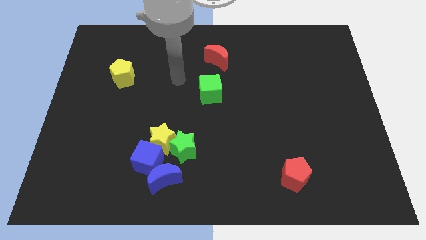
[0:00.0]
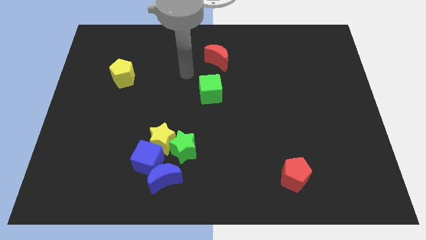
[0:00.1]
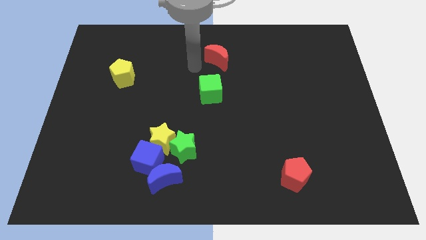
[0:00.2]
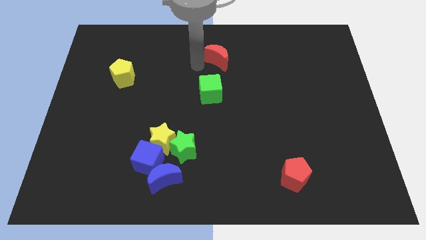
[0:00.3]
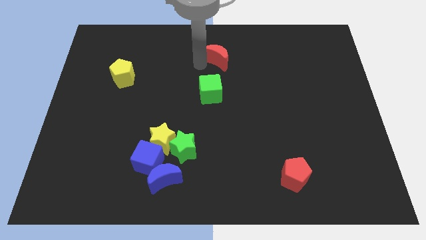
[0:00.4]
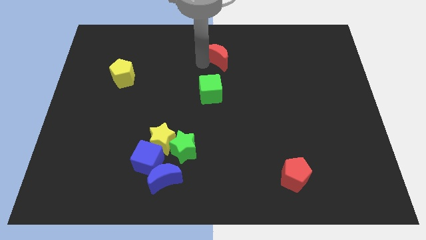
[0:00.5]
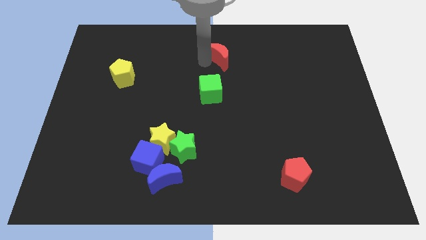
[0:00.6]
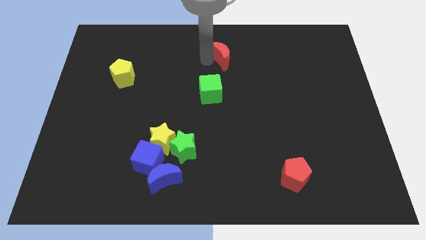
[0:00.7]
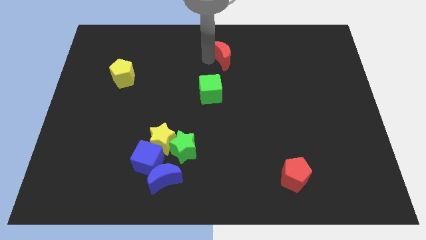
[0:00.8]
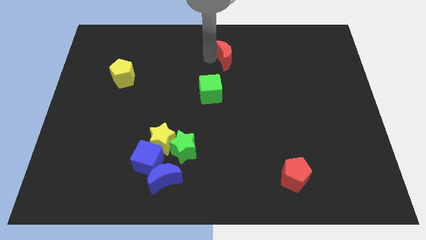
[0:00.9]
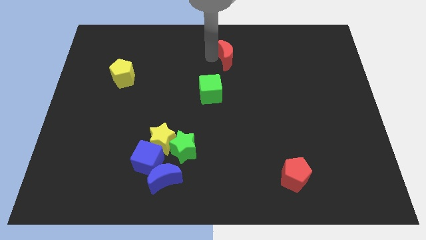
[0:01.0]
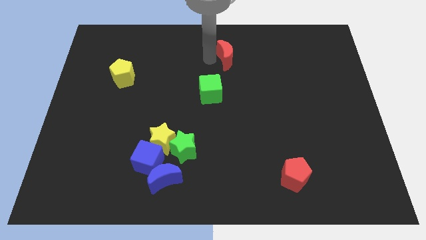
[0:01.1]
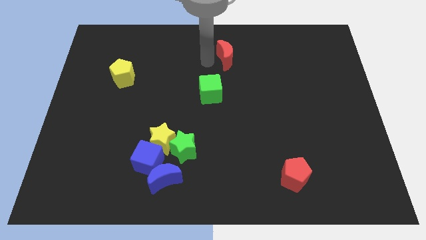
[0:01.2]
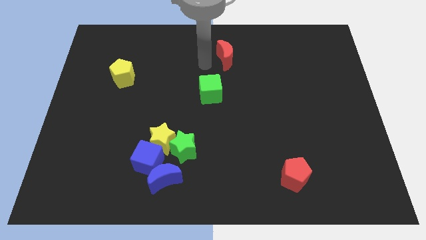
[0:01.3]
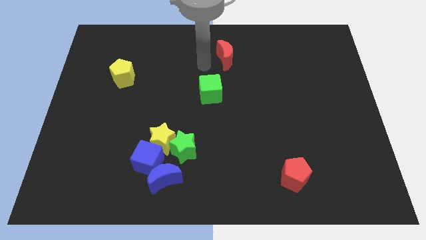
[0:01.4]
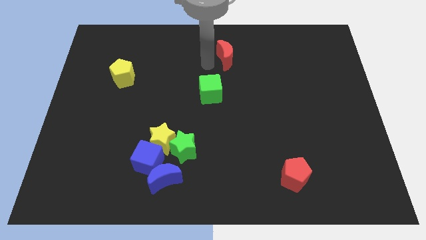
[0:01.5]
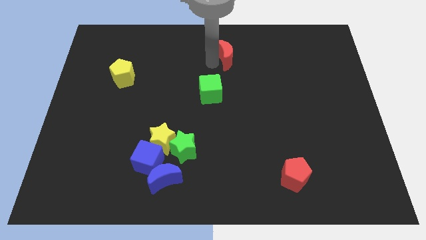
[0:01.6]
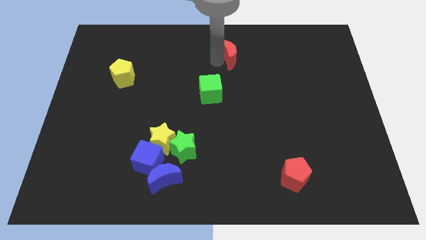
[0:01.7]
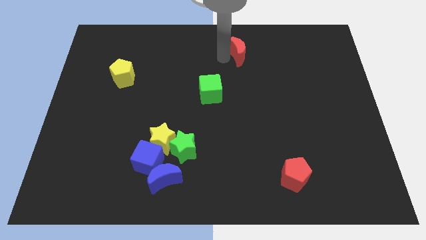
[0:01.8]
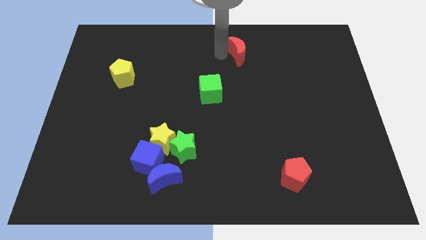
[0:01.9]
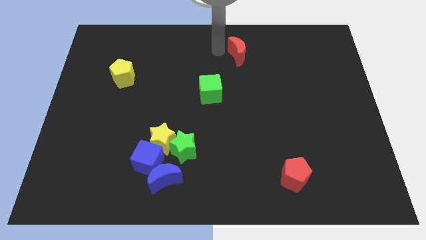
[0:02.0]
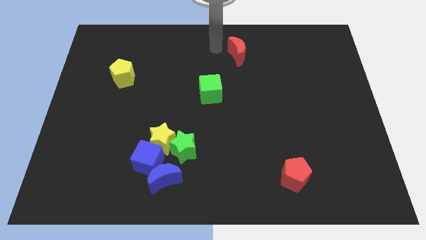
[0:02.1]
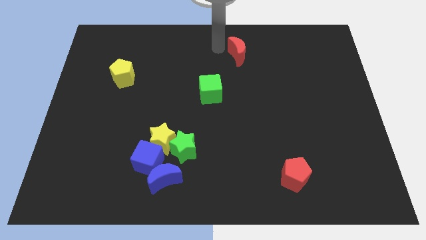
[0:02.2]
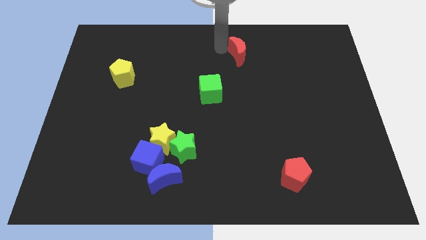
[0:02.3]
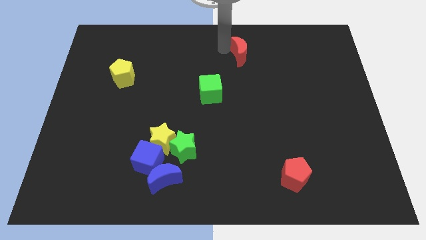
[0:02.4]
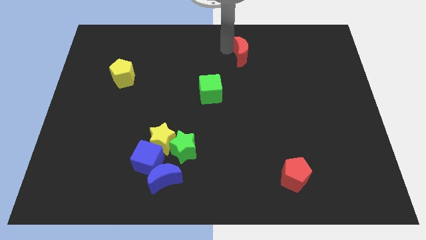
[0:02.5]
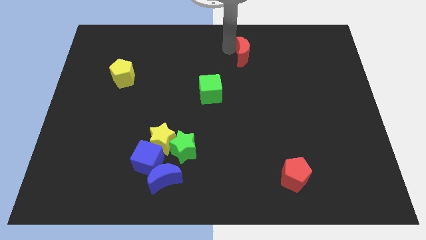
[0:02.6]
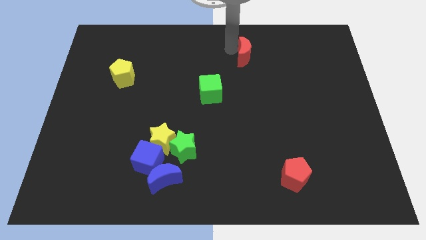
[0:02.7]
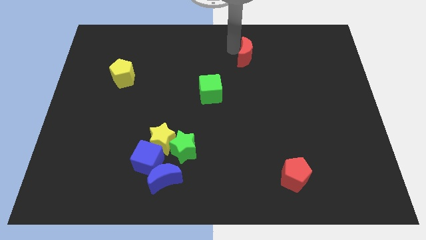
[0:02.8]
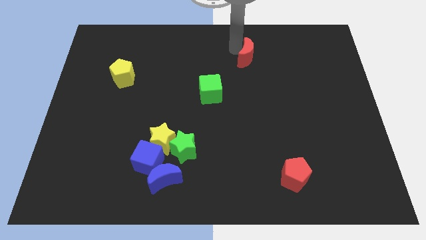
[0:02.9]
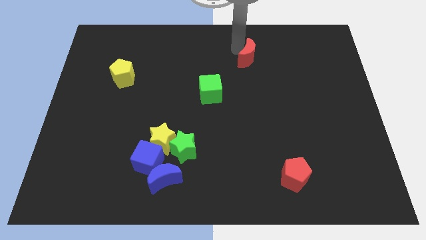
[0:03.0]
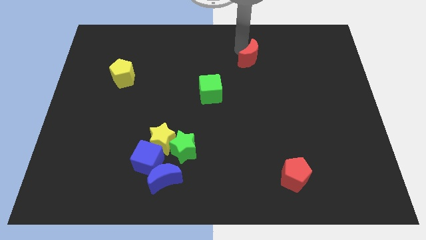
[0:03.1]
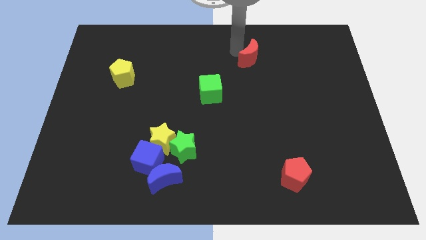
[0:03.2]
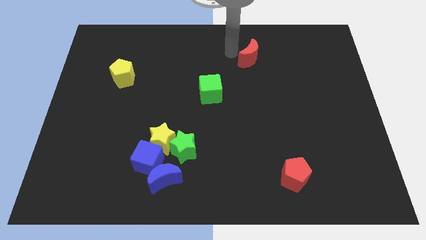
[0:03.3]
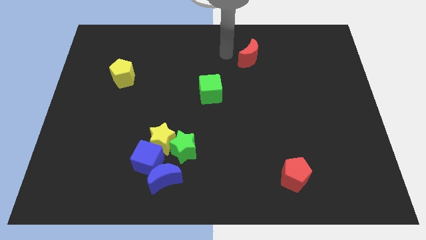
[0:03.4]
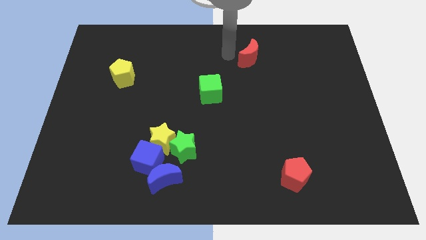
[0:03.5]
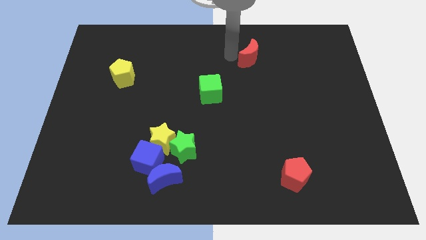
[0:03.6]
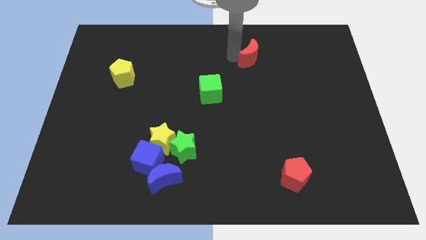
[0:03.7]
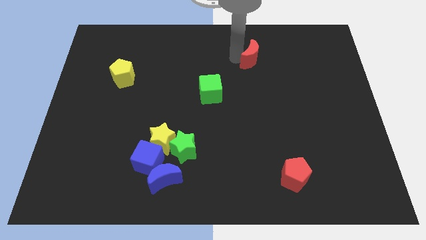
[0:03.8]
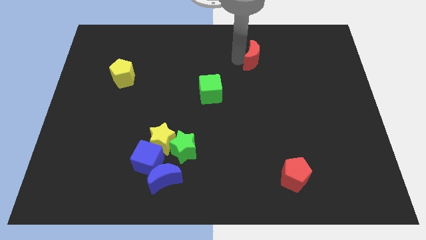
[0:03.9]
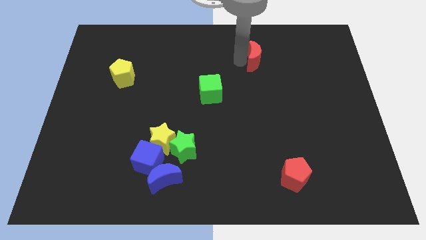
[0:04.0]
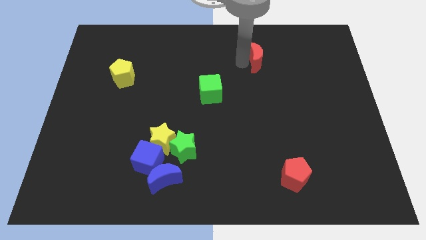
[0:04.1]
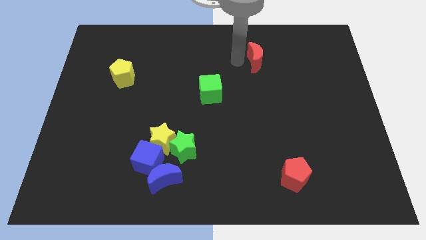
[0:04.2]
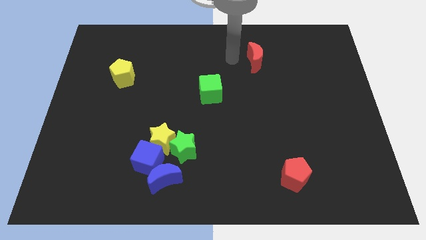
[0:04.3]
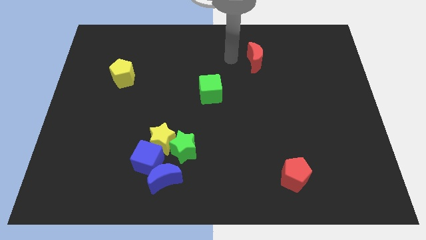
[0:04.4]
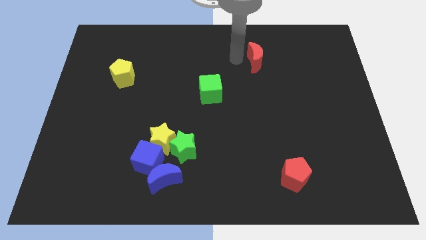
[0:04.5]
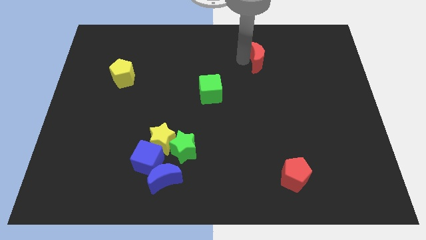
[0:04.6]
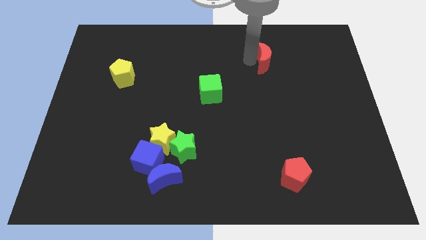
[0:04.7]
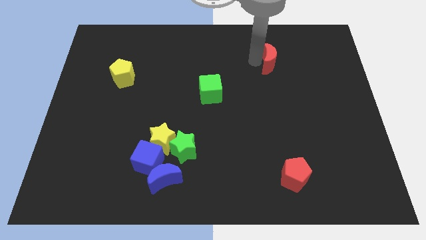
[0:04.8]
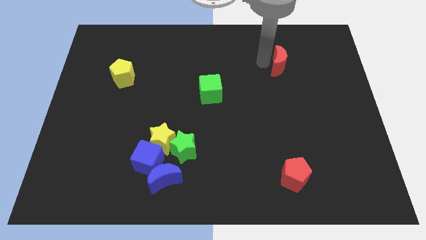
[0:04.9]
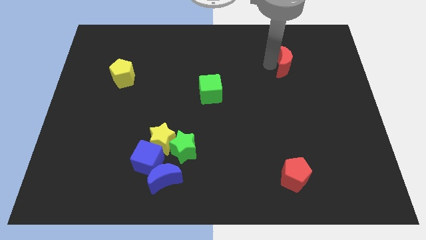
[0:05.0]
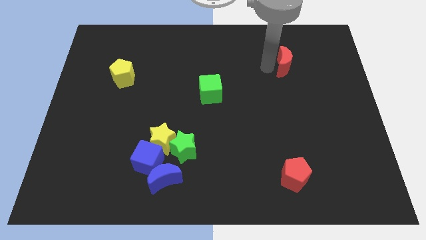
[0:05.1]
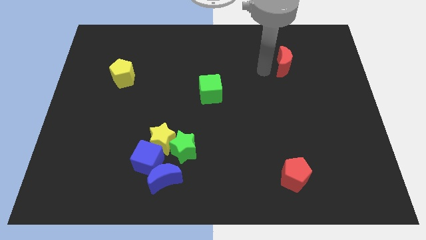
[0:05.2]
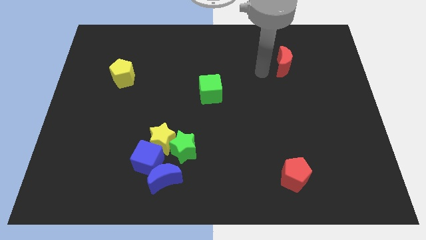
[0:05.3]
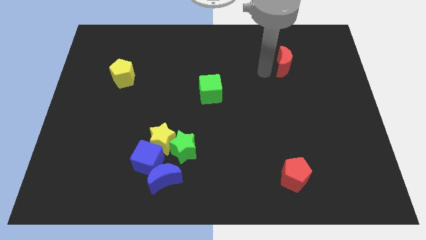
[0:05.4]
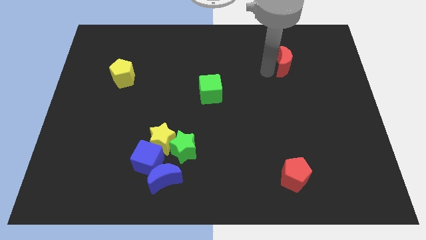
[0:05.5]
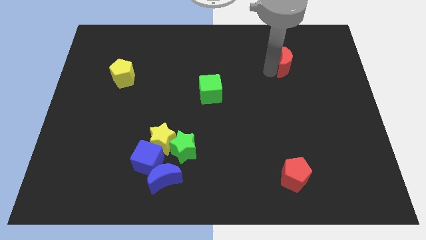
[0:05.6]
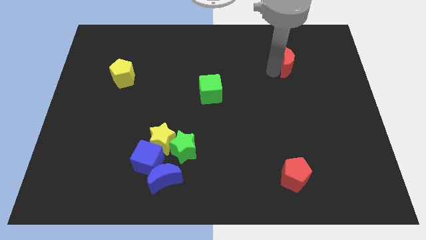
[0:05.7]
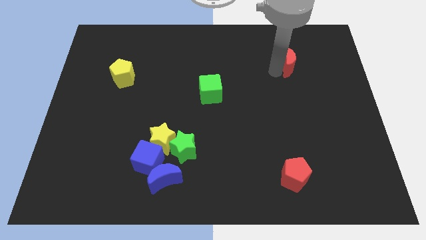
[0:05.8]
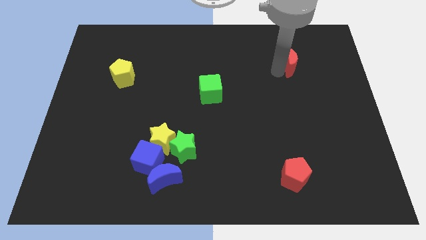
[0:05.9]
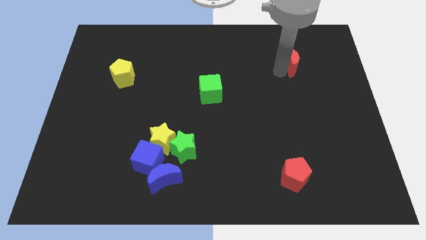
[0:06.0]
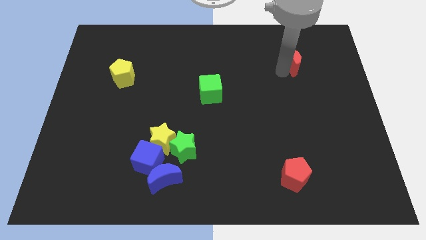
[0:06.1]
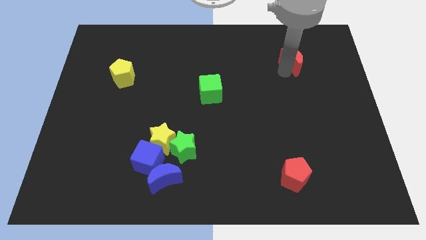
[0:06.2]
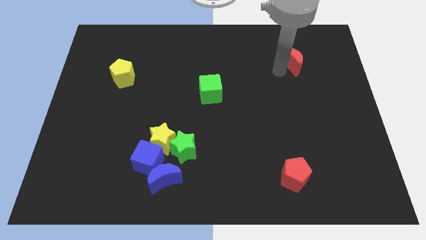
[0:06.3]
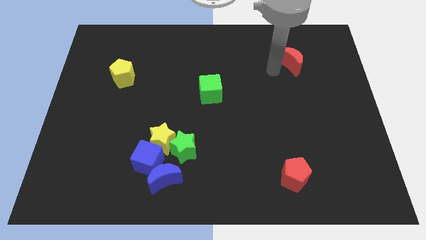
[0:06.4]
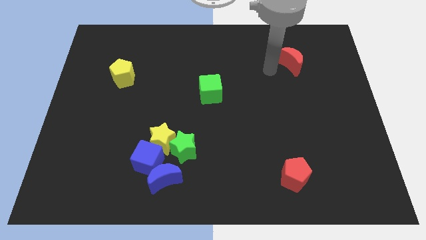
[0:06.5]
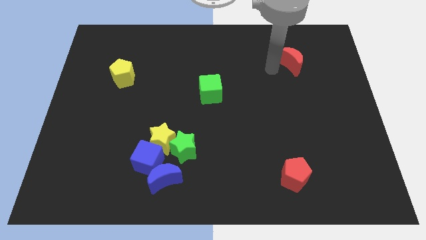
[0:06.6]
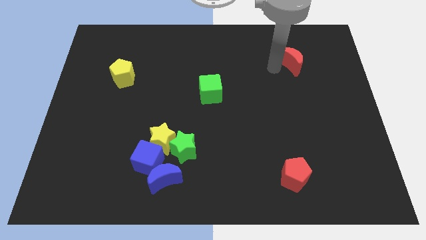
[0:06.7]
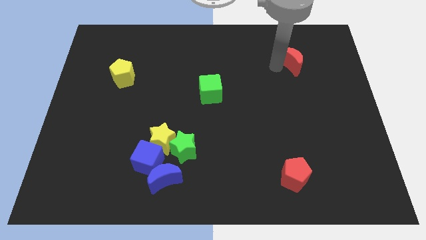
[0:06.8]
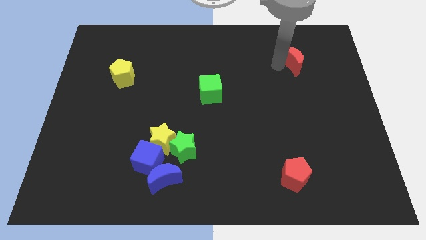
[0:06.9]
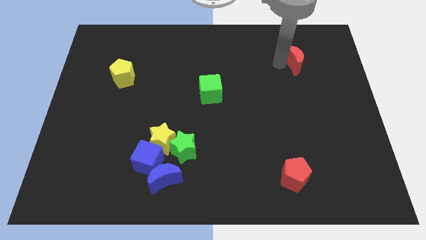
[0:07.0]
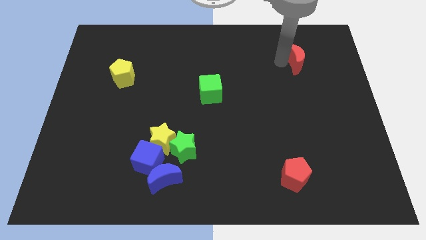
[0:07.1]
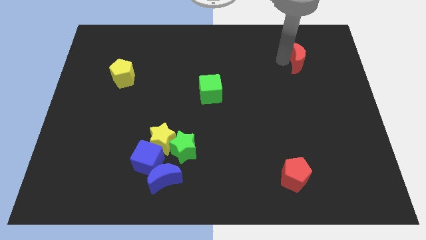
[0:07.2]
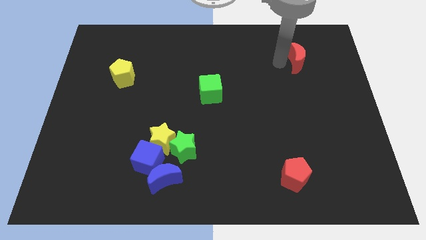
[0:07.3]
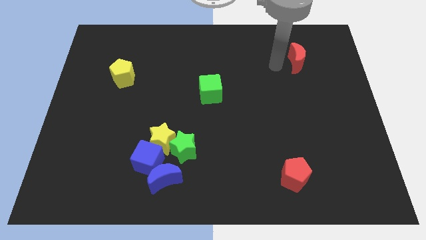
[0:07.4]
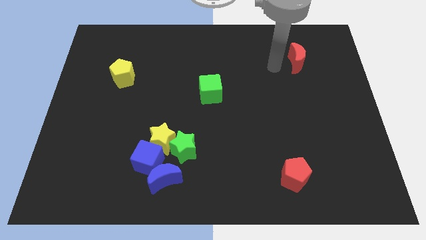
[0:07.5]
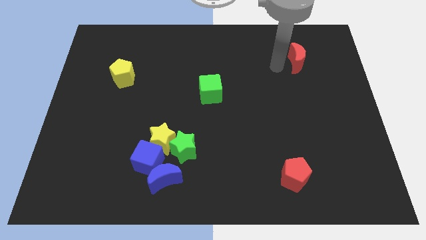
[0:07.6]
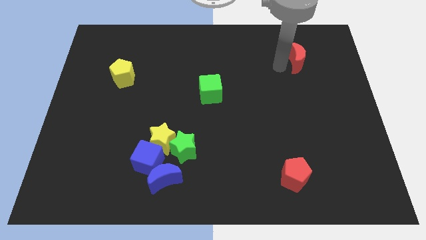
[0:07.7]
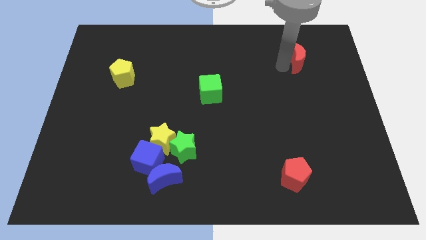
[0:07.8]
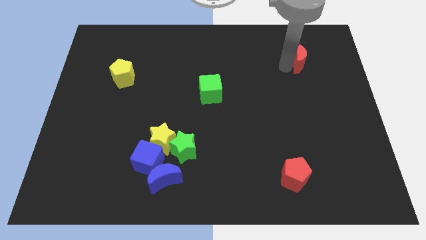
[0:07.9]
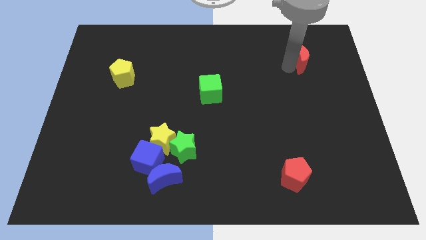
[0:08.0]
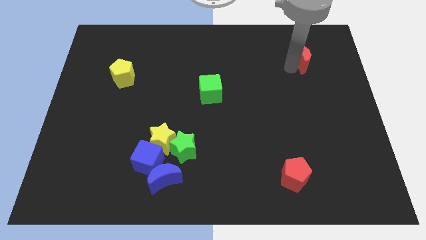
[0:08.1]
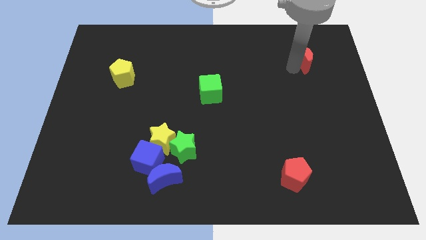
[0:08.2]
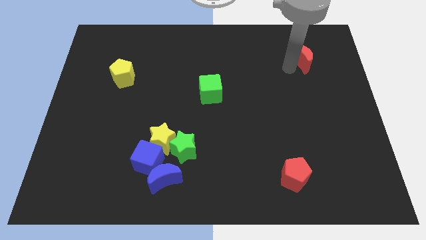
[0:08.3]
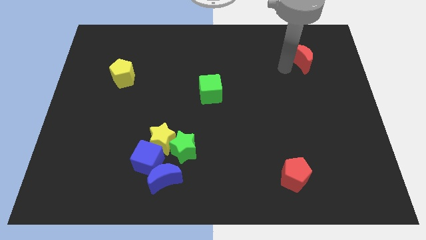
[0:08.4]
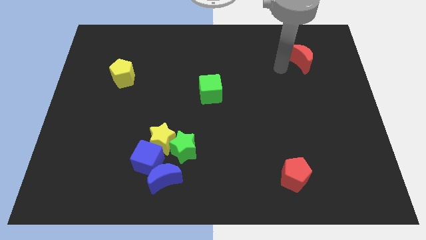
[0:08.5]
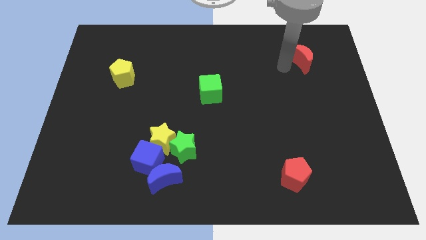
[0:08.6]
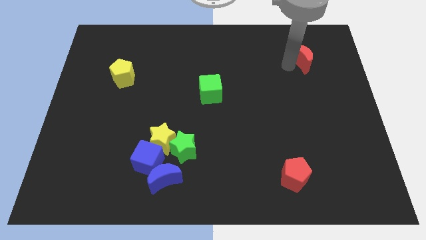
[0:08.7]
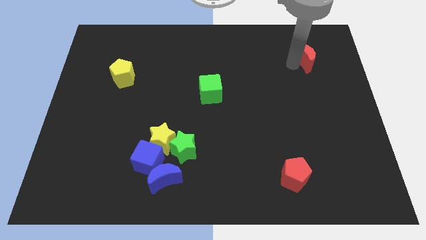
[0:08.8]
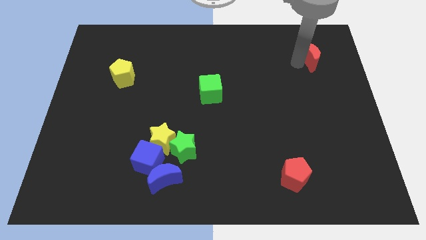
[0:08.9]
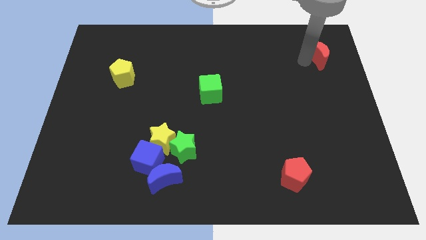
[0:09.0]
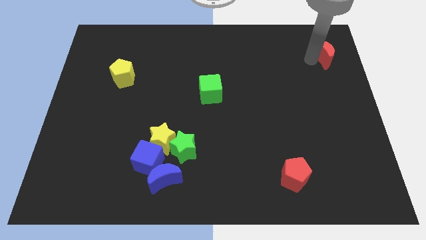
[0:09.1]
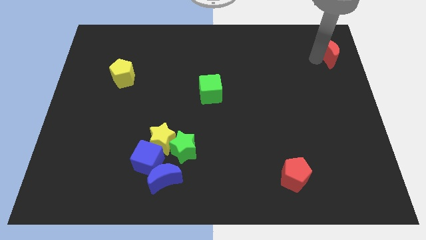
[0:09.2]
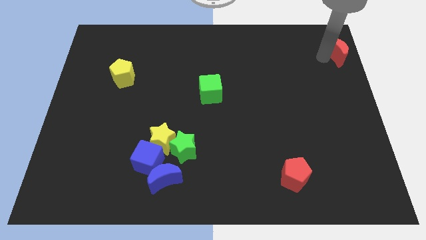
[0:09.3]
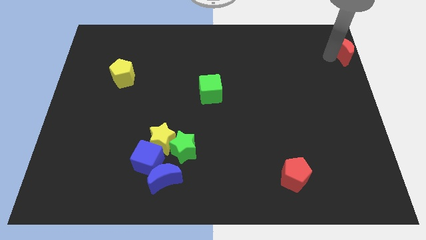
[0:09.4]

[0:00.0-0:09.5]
push the red moon to the top right of the board
